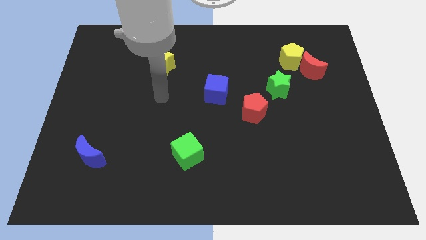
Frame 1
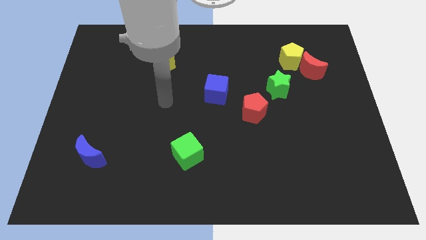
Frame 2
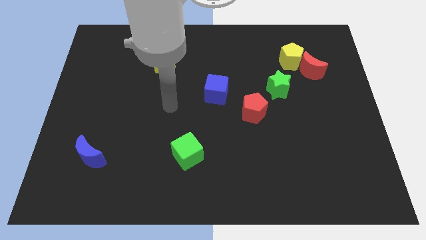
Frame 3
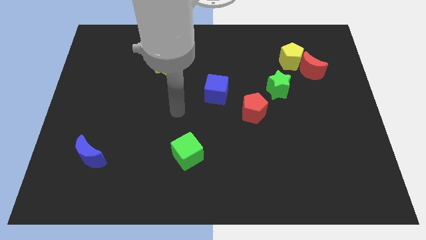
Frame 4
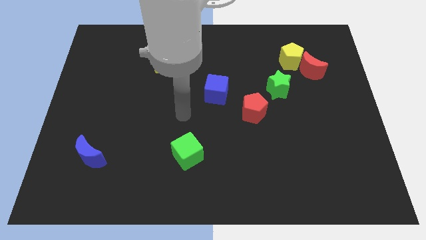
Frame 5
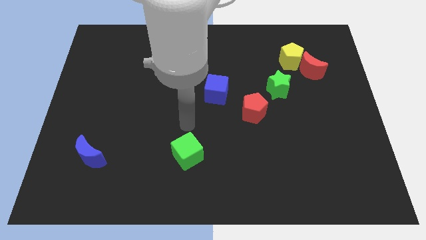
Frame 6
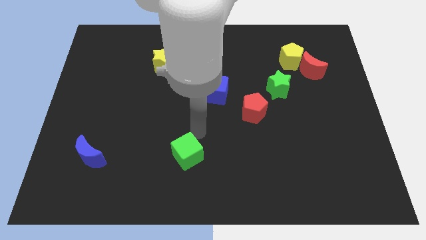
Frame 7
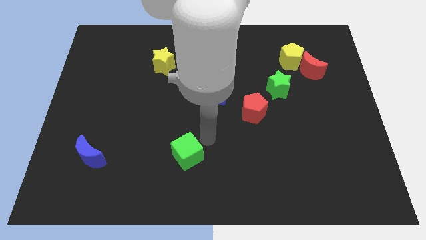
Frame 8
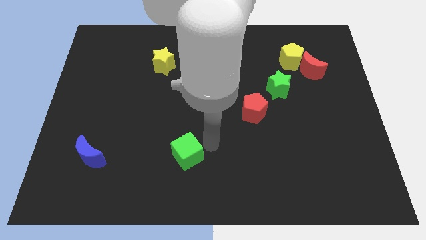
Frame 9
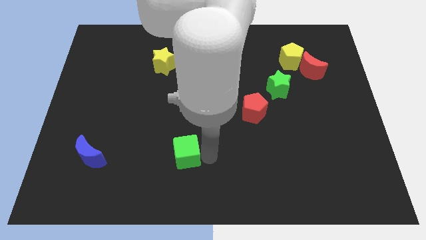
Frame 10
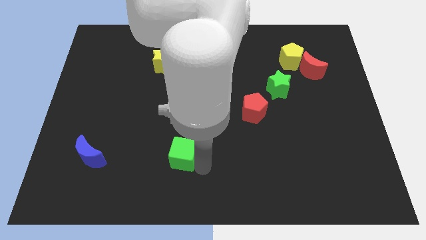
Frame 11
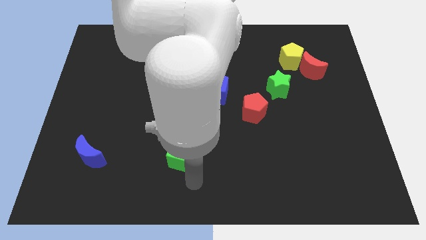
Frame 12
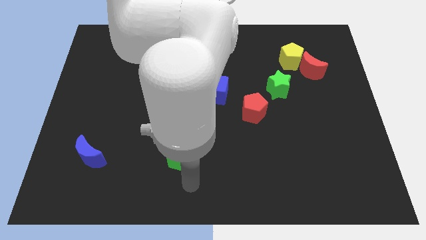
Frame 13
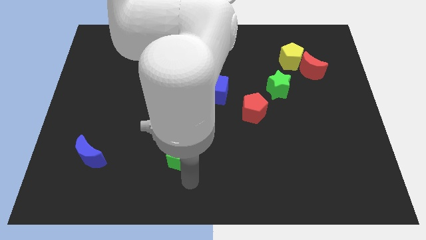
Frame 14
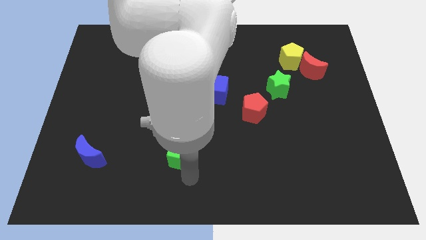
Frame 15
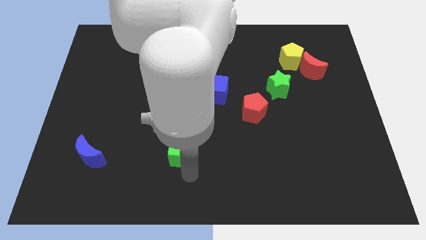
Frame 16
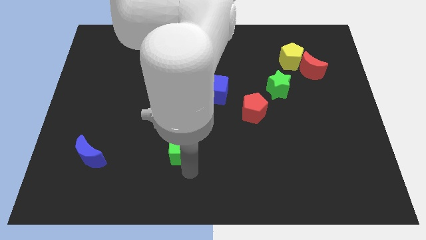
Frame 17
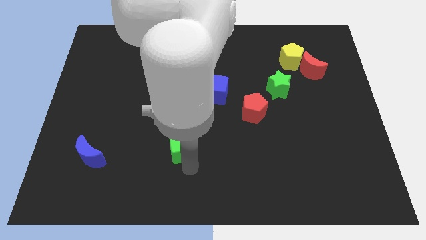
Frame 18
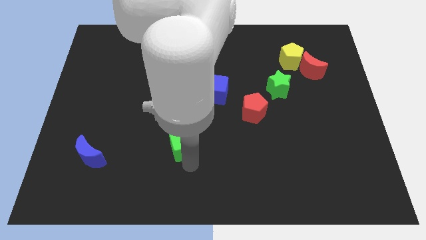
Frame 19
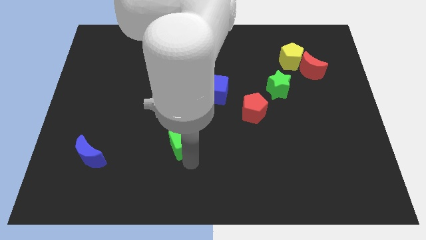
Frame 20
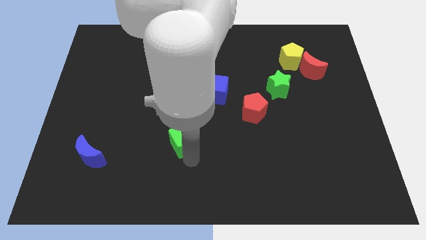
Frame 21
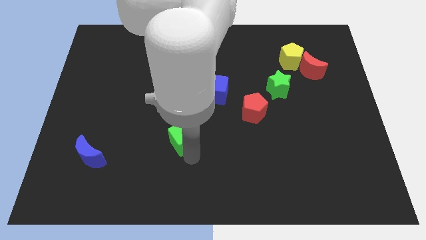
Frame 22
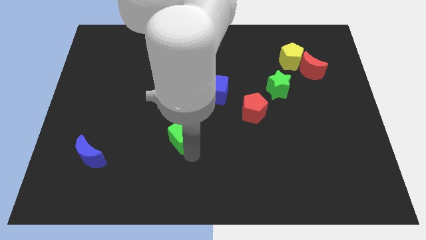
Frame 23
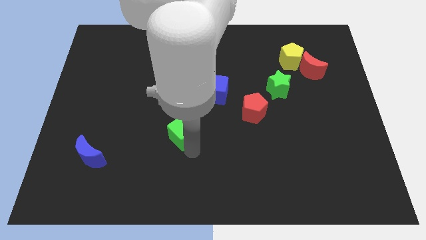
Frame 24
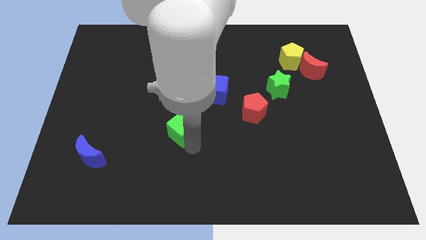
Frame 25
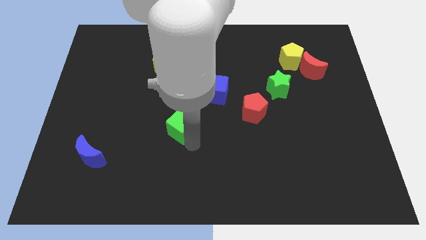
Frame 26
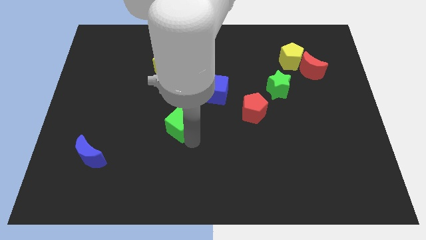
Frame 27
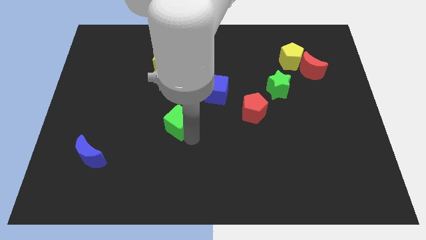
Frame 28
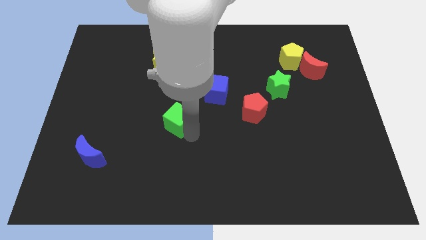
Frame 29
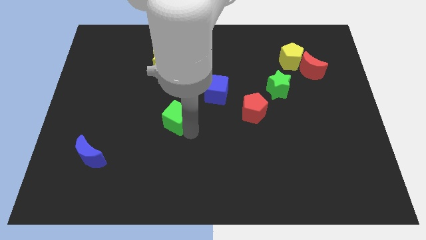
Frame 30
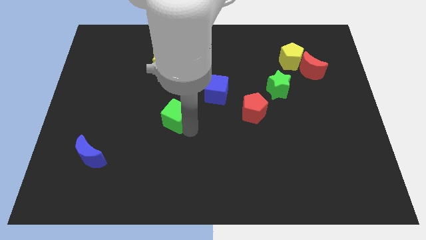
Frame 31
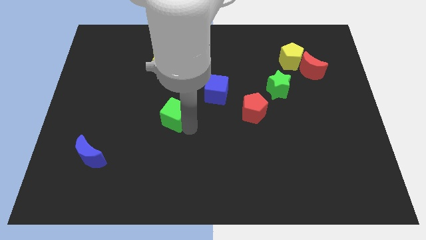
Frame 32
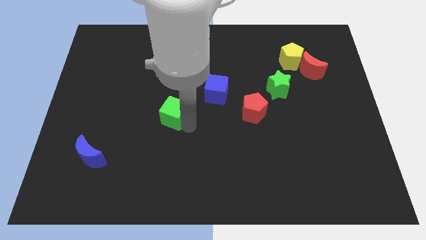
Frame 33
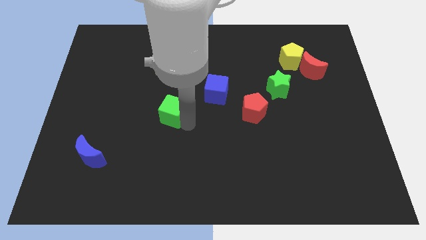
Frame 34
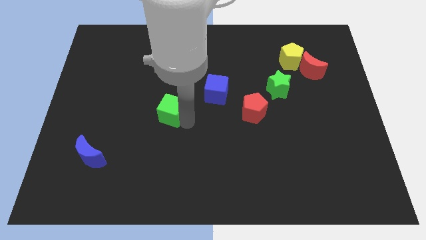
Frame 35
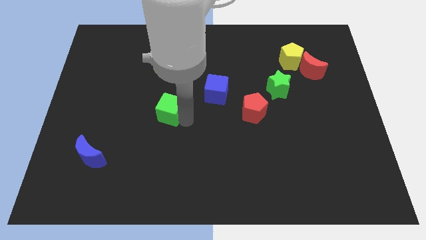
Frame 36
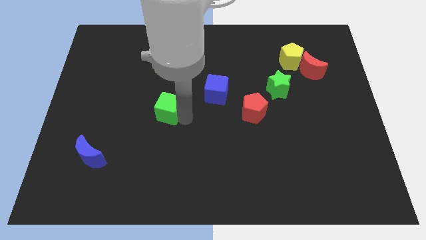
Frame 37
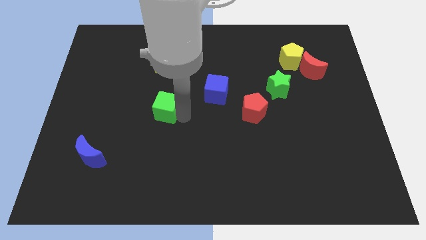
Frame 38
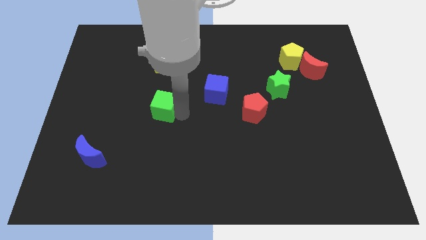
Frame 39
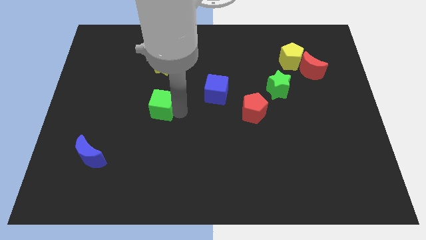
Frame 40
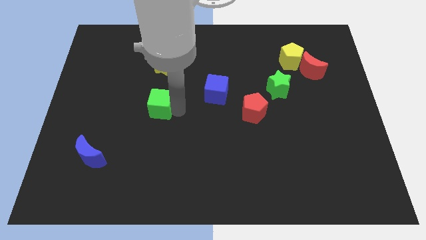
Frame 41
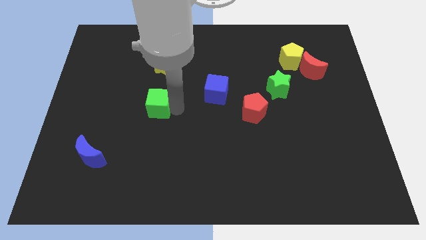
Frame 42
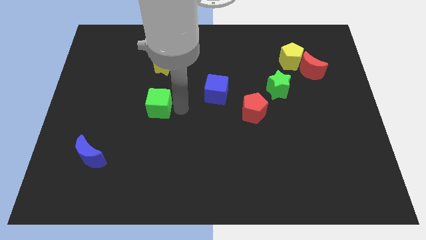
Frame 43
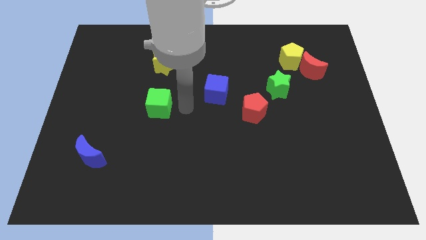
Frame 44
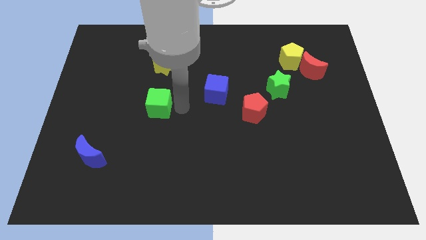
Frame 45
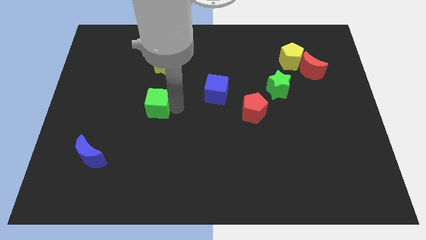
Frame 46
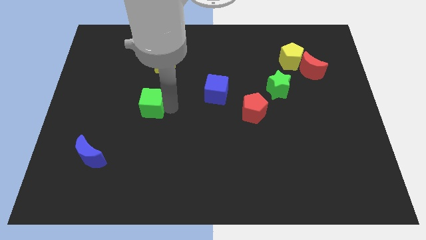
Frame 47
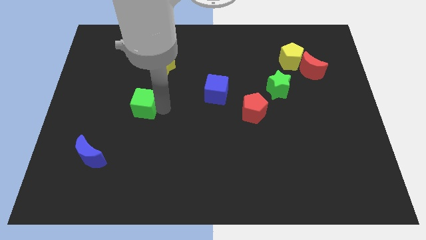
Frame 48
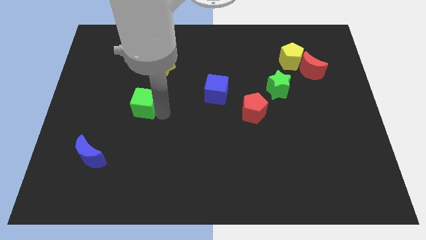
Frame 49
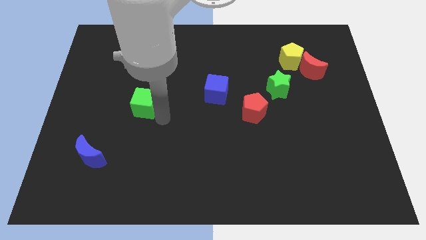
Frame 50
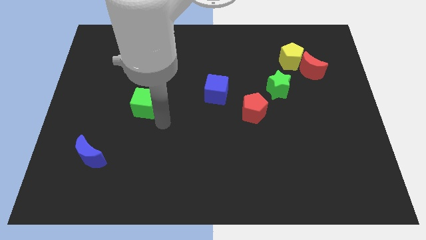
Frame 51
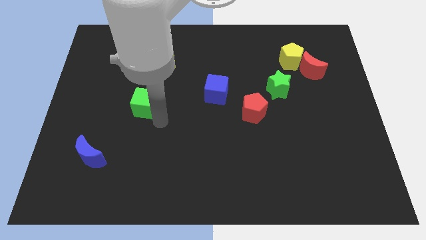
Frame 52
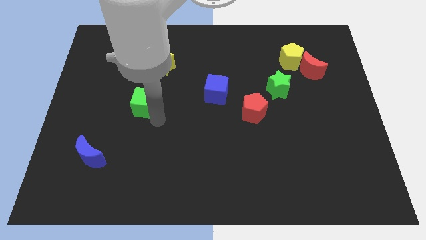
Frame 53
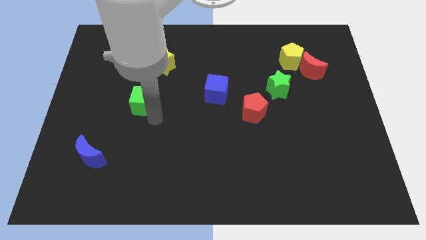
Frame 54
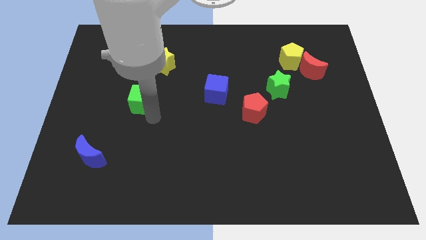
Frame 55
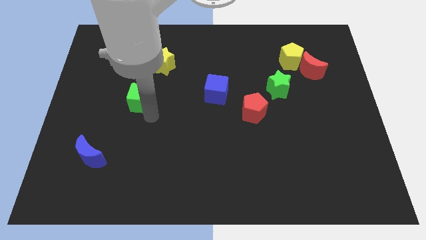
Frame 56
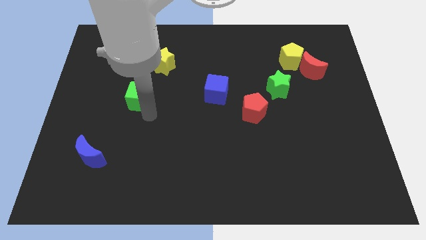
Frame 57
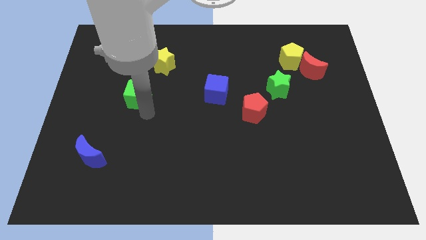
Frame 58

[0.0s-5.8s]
push the green cube diagonally up and left

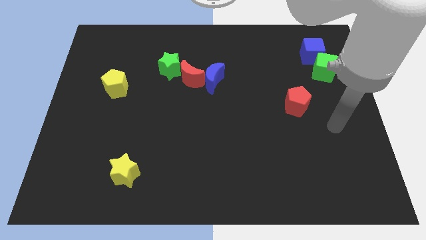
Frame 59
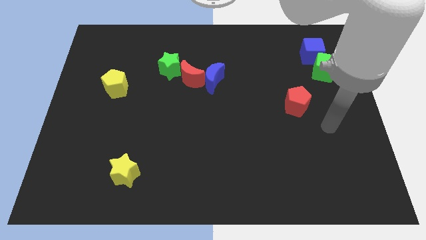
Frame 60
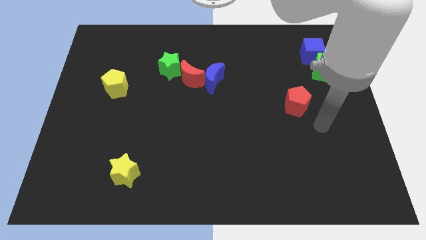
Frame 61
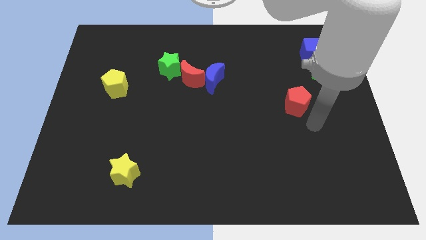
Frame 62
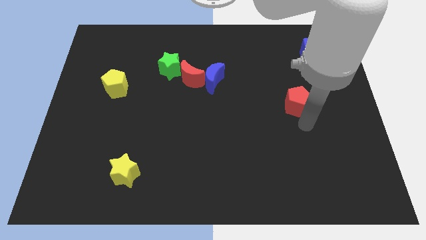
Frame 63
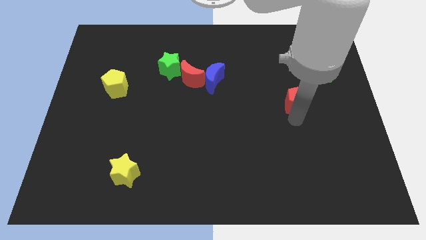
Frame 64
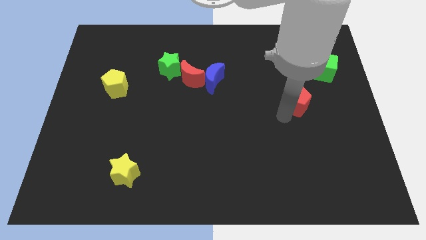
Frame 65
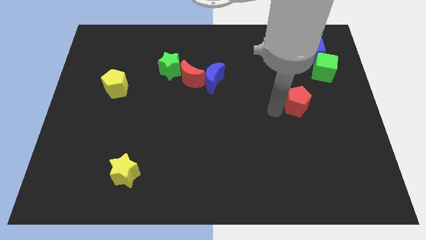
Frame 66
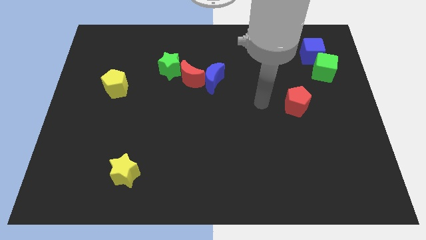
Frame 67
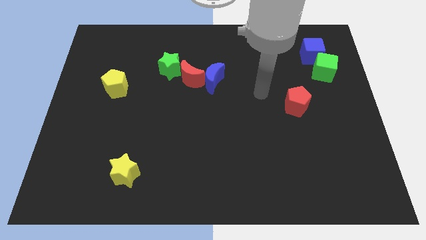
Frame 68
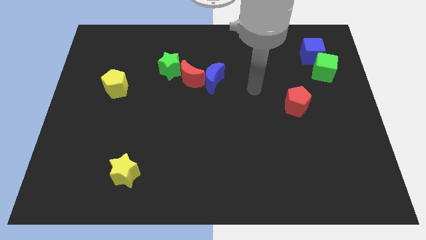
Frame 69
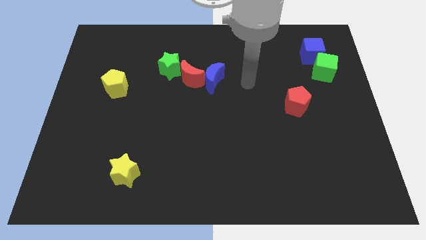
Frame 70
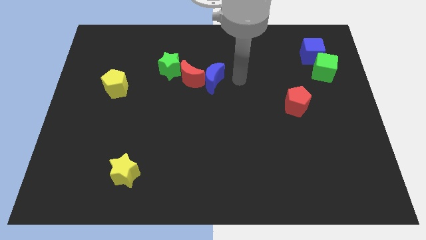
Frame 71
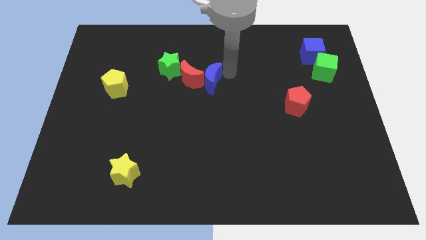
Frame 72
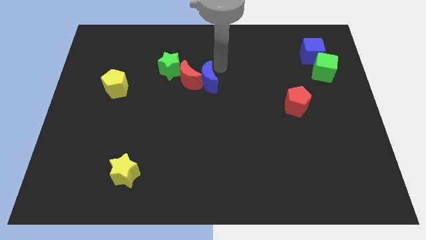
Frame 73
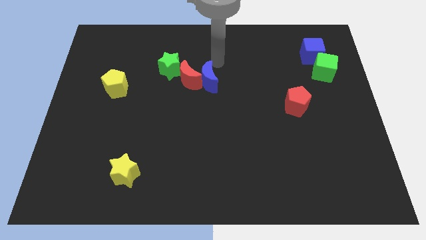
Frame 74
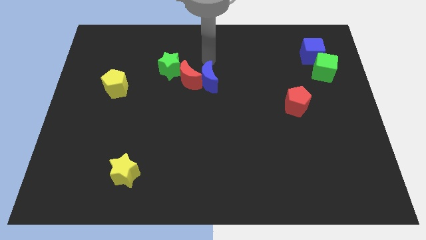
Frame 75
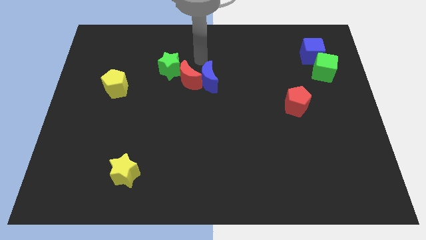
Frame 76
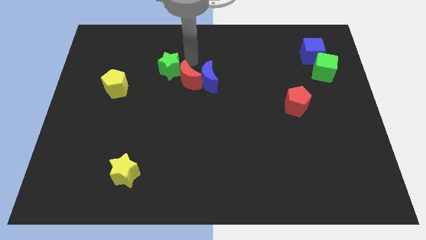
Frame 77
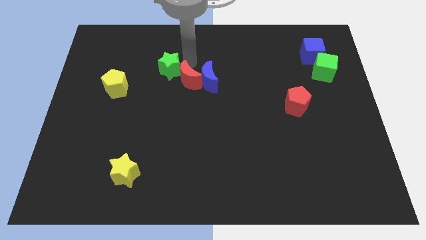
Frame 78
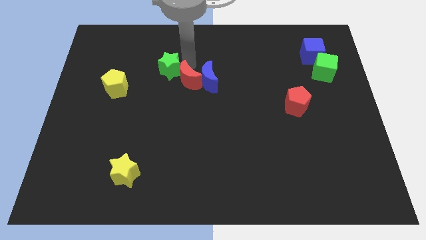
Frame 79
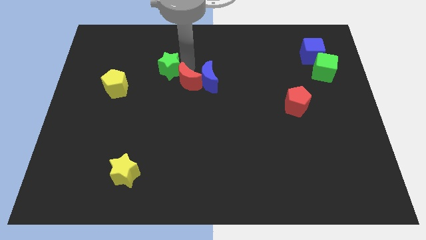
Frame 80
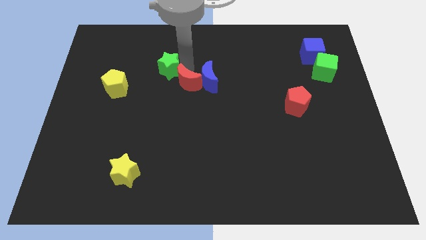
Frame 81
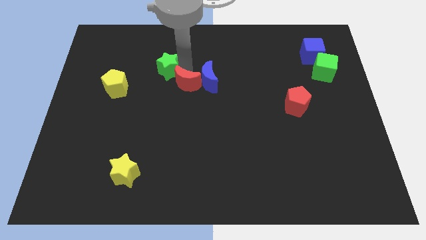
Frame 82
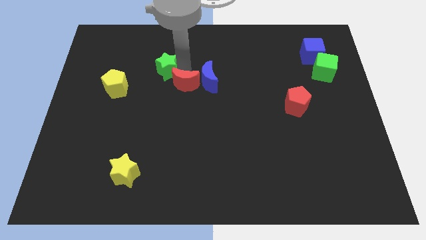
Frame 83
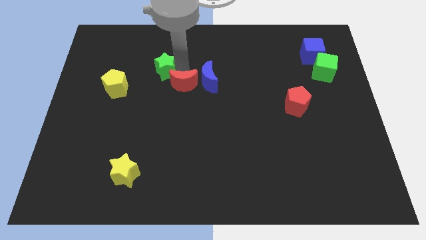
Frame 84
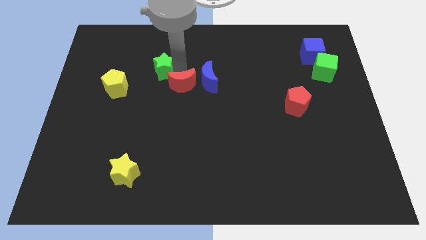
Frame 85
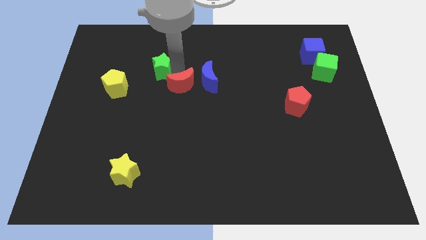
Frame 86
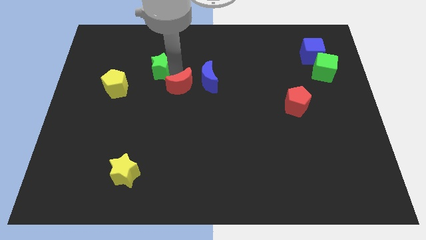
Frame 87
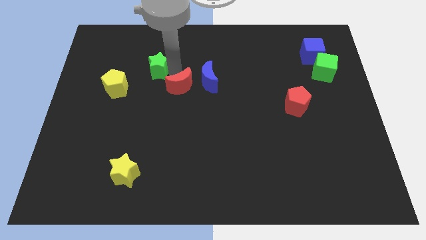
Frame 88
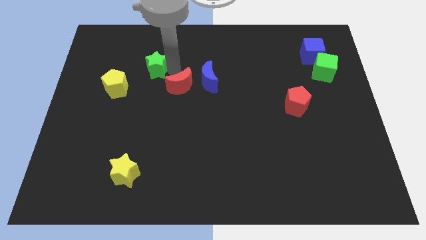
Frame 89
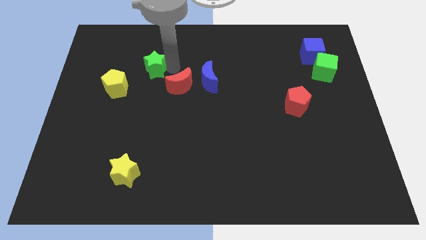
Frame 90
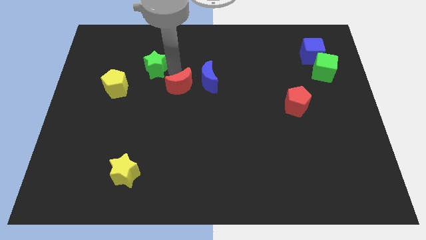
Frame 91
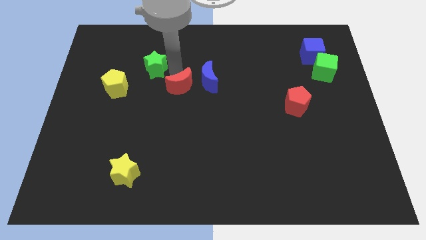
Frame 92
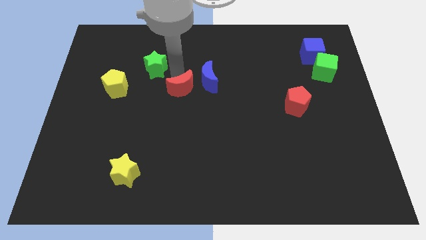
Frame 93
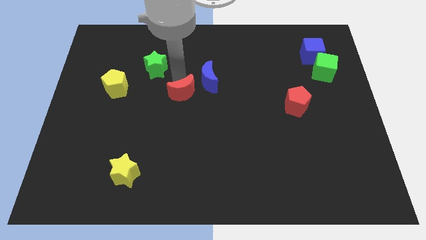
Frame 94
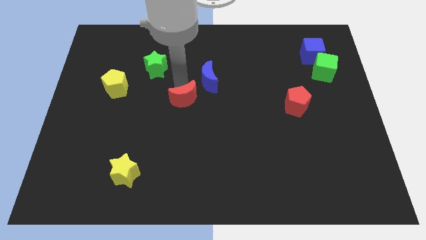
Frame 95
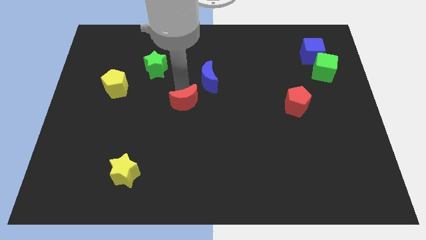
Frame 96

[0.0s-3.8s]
push the red moon downwards a little bit
